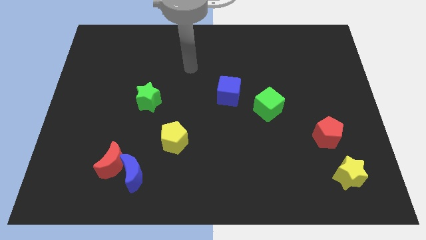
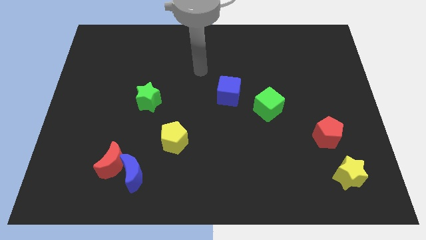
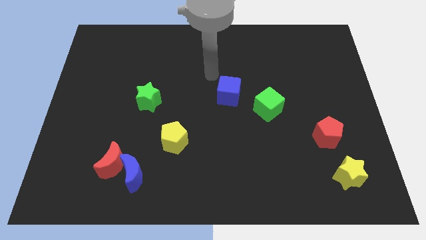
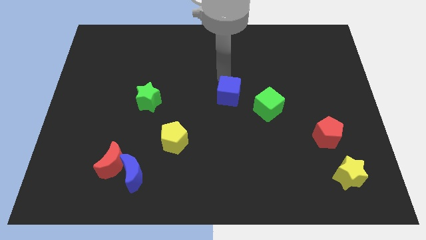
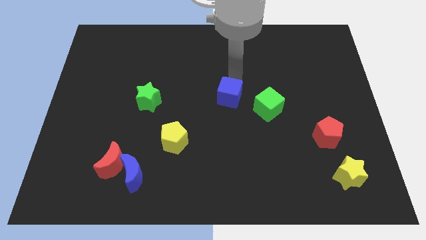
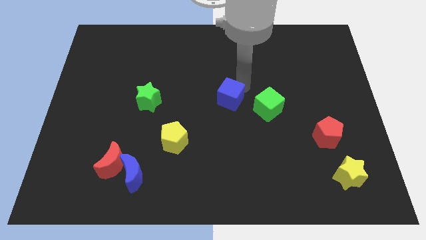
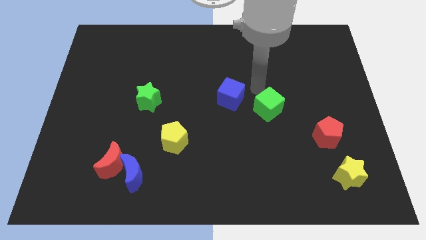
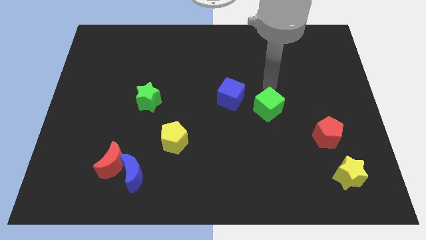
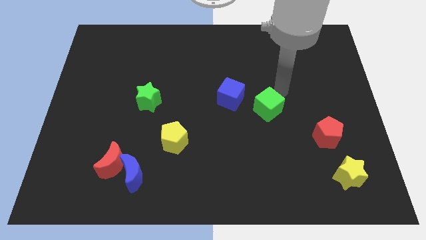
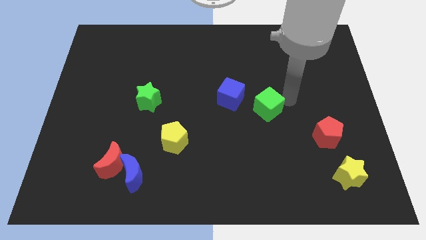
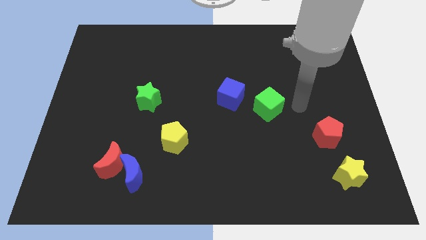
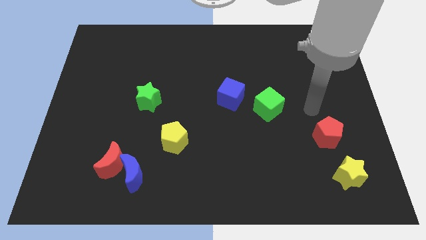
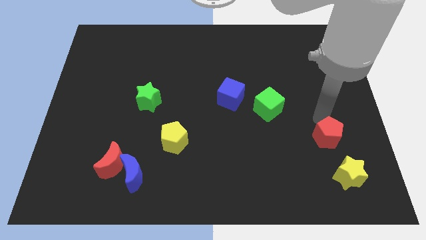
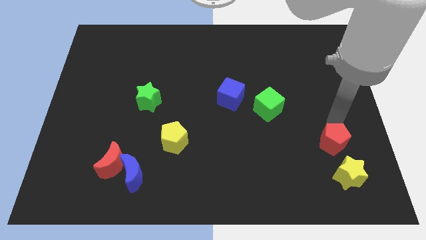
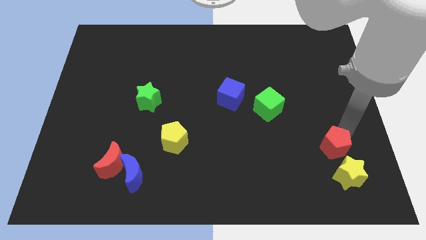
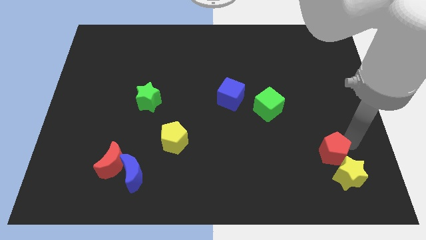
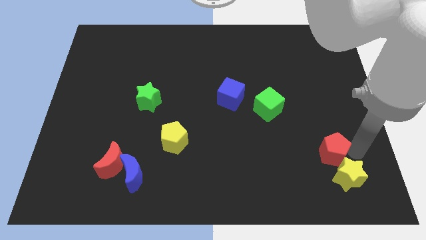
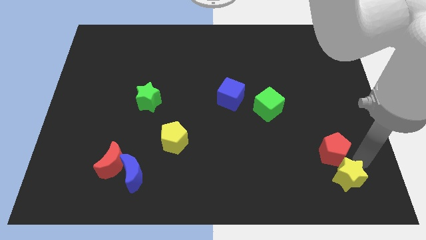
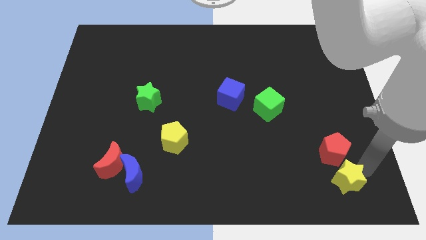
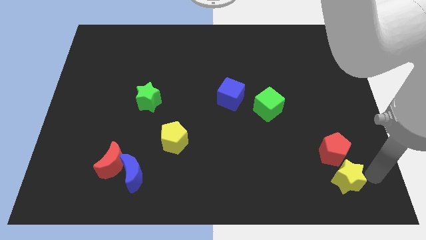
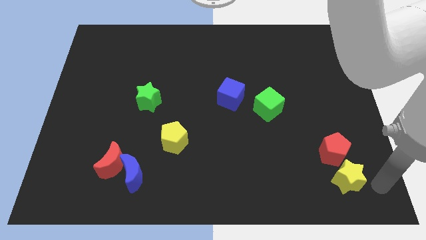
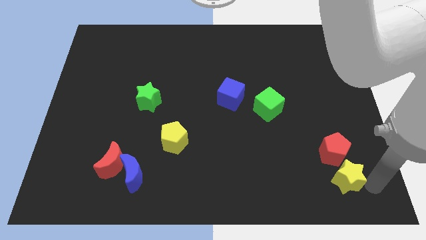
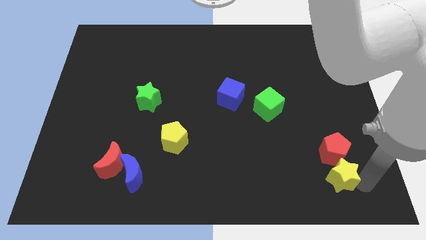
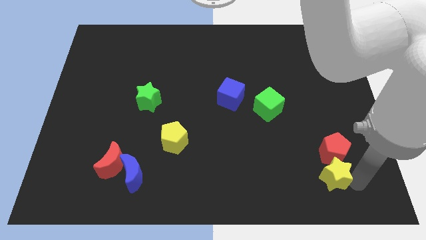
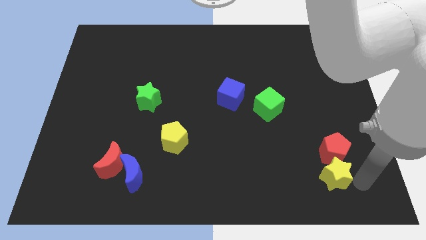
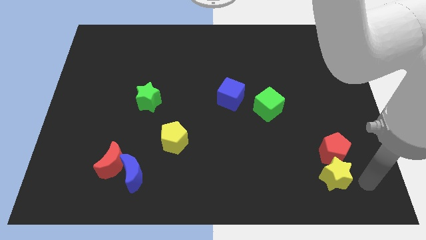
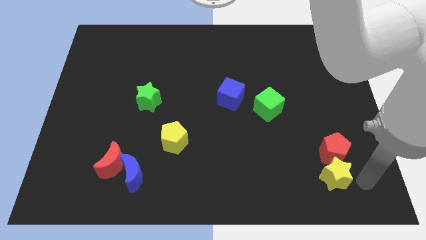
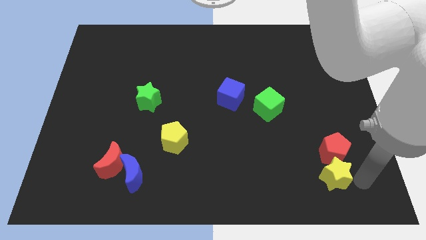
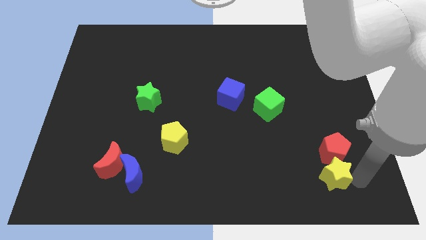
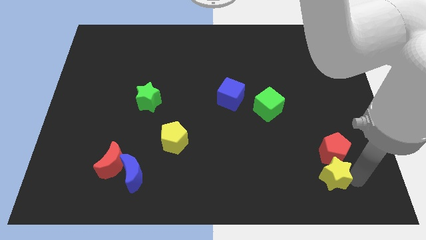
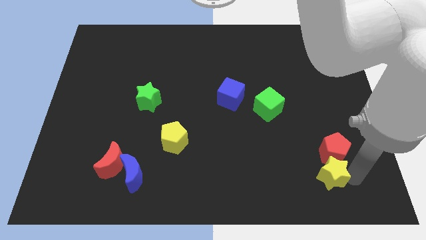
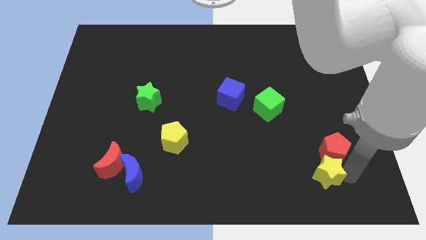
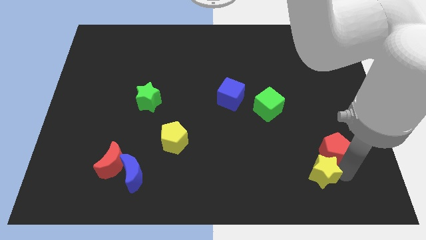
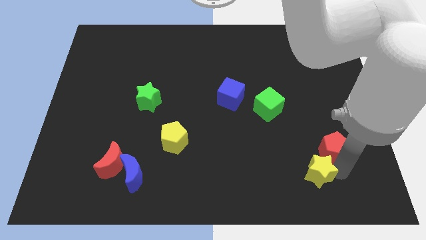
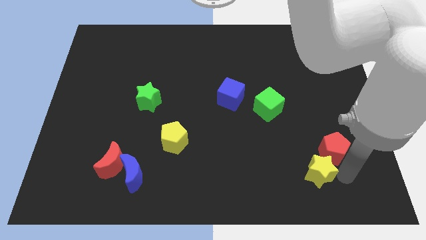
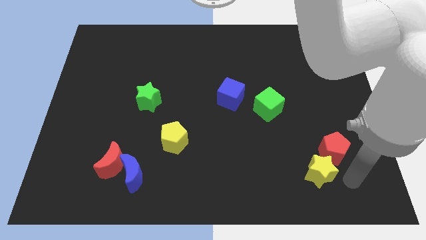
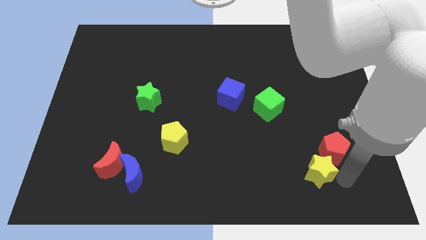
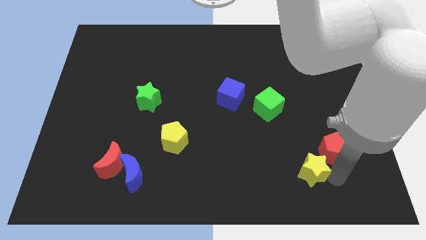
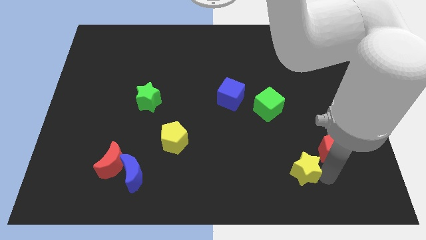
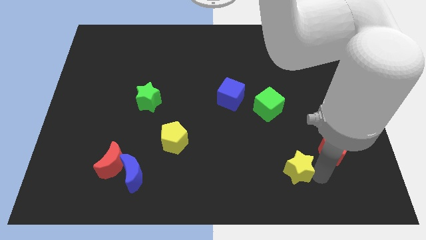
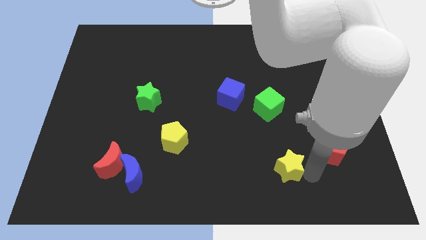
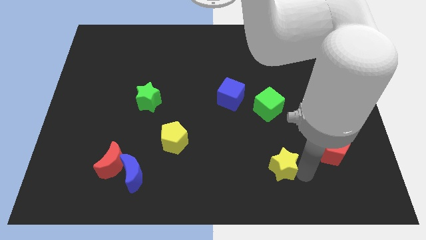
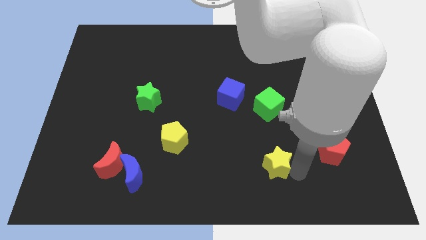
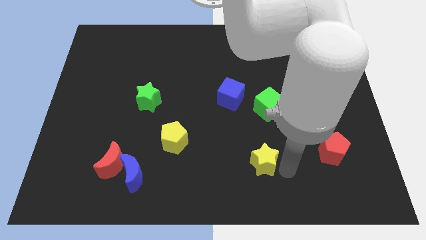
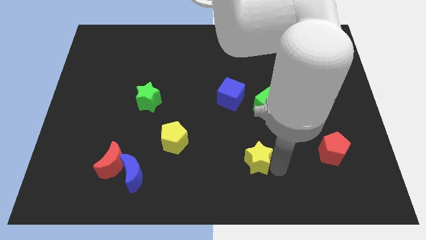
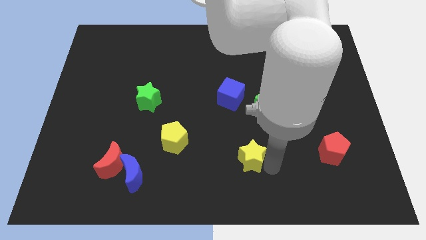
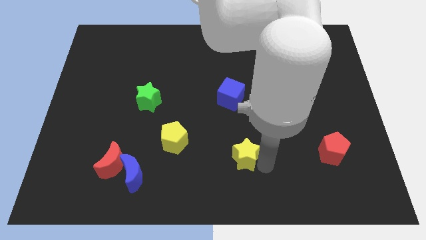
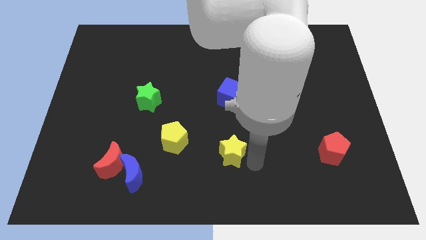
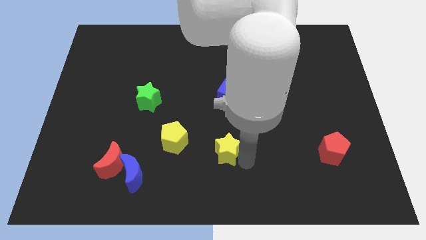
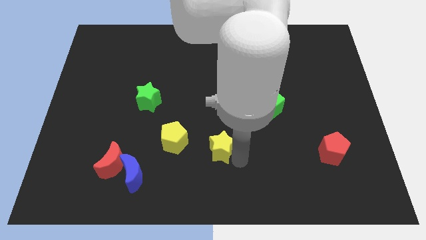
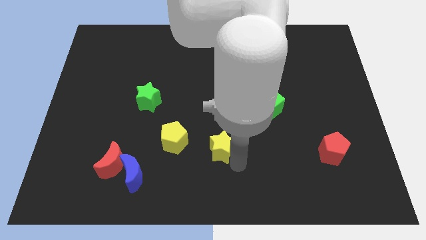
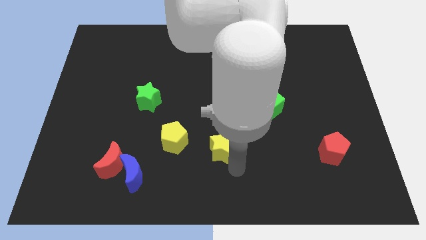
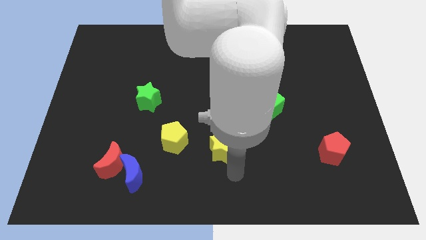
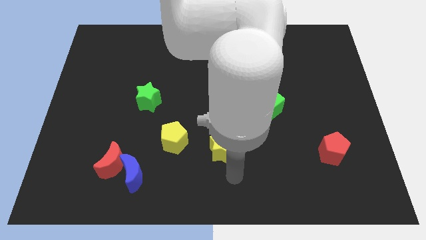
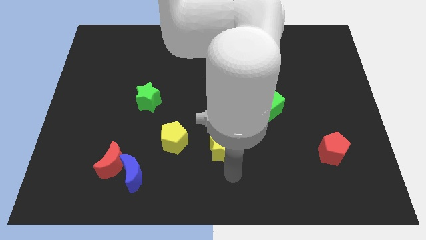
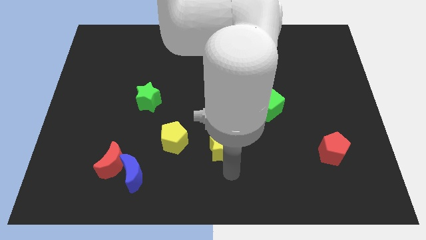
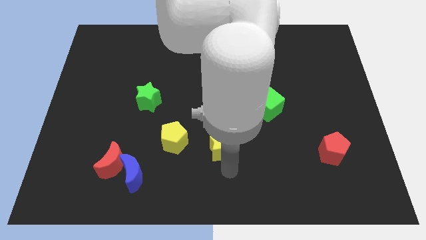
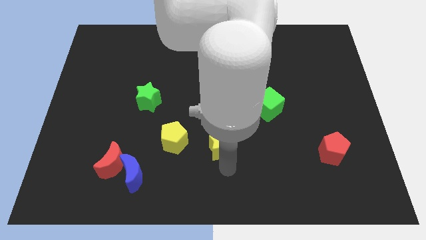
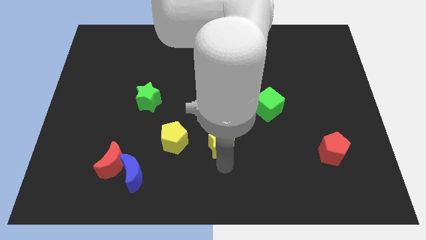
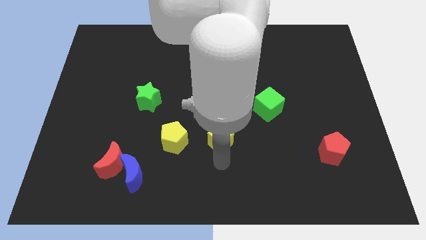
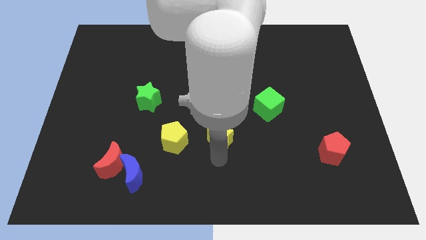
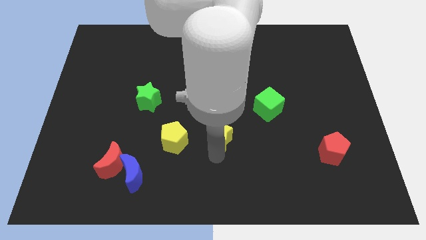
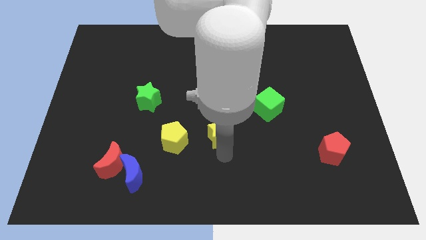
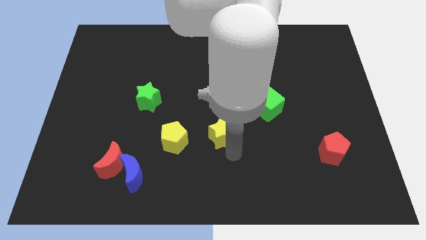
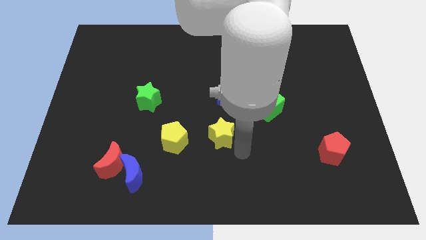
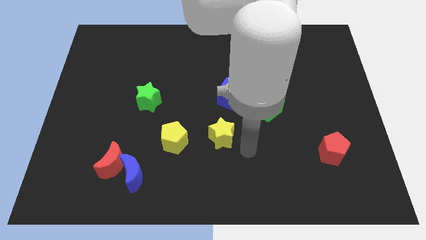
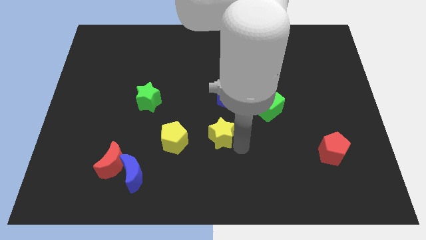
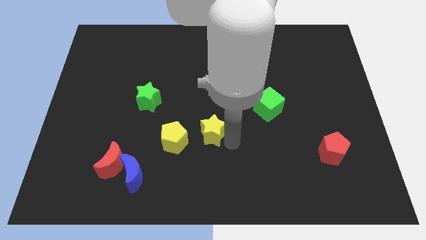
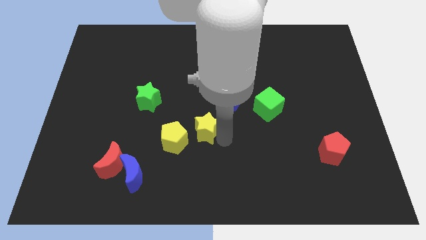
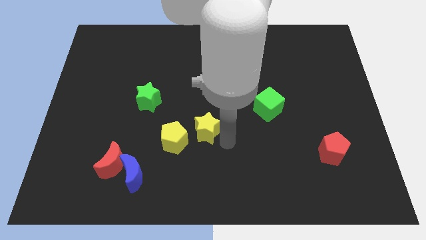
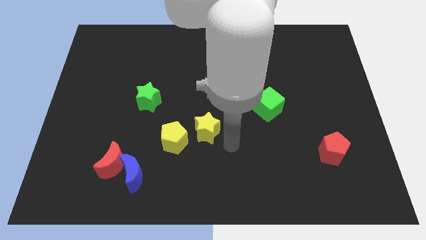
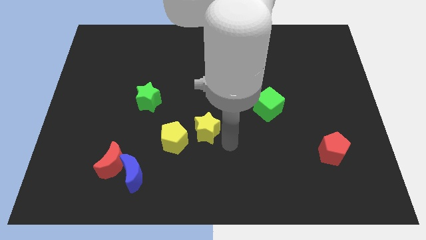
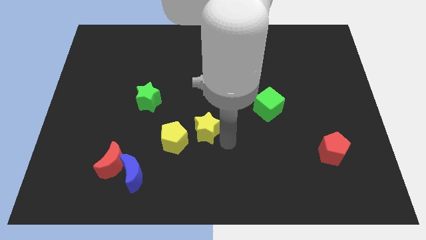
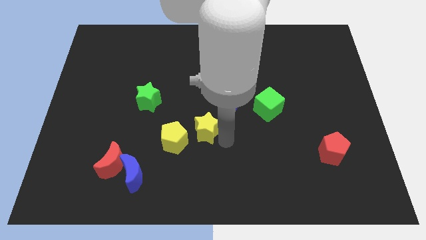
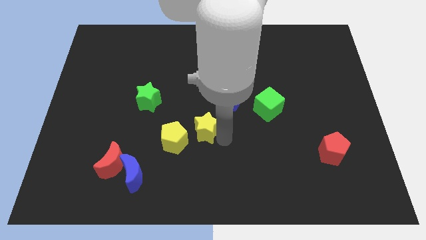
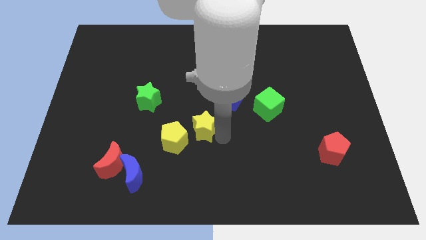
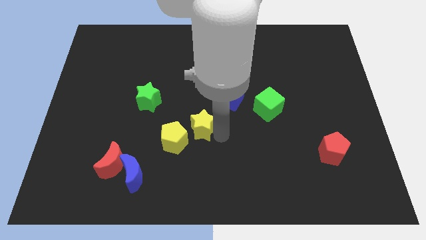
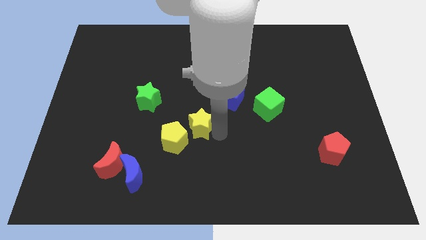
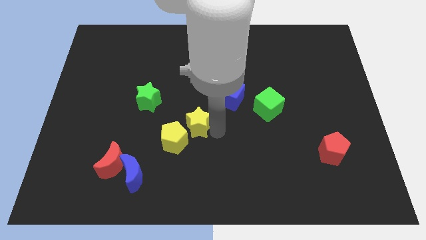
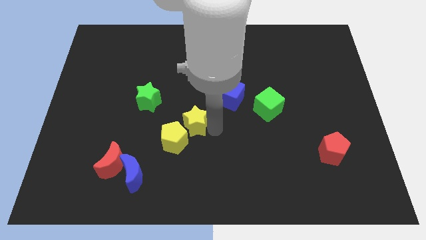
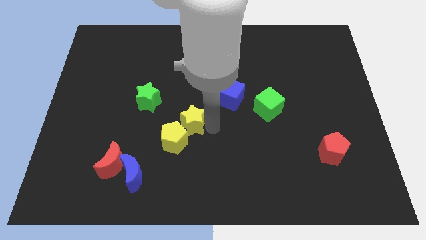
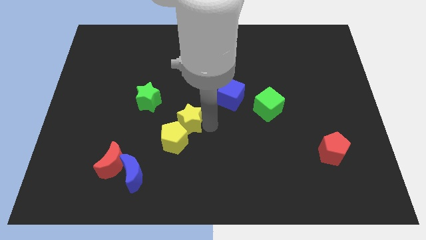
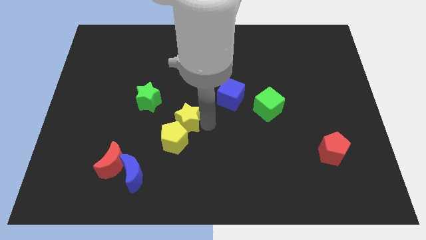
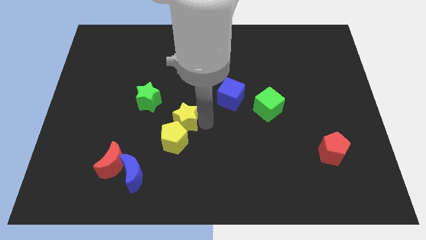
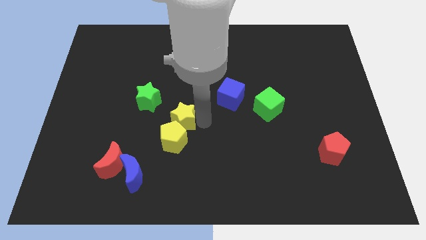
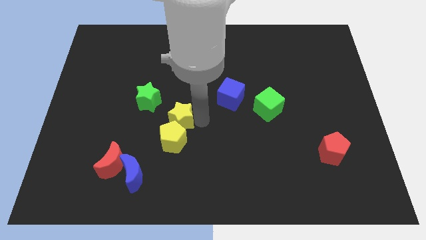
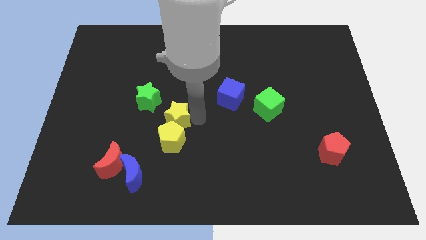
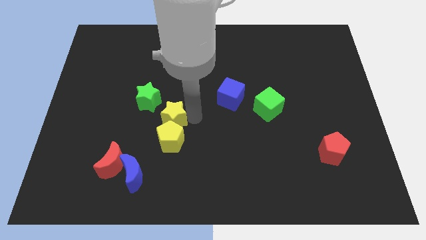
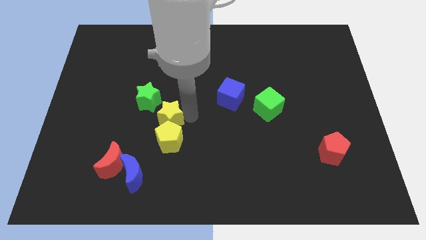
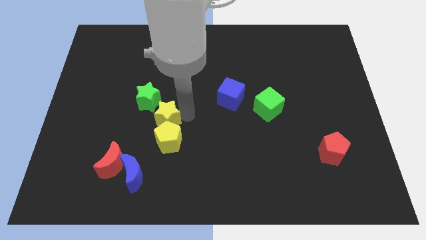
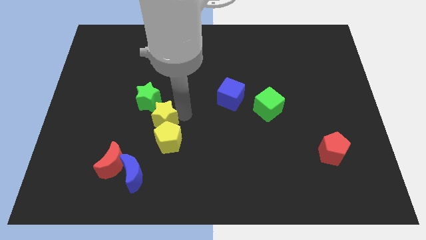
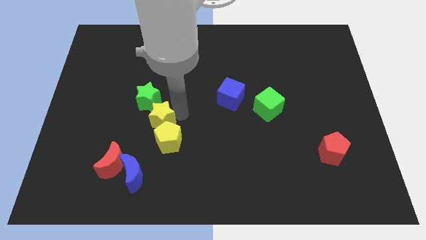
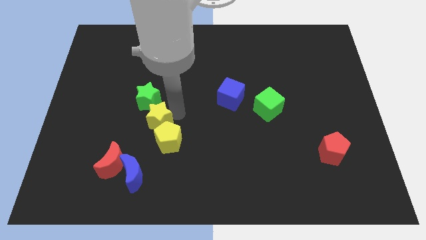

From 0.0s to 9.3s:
slide the yellow star to the top side of the blue moon
